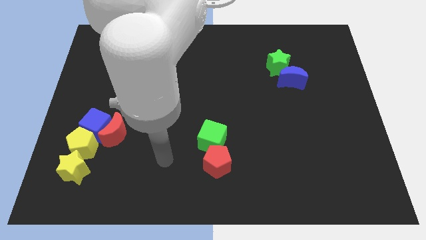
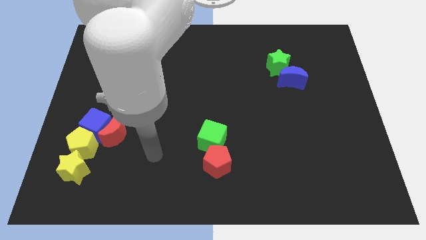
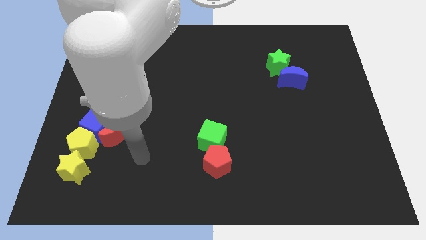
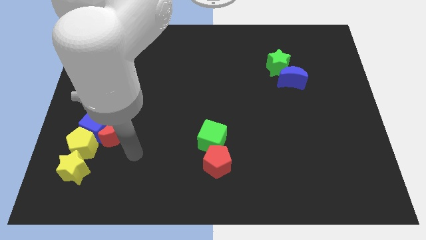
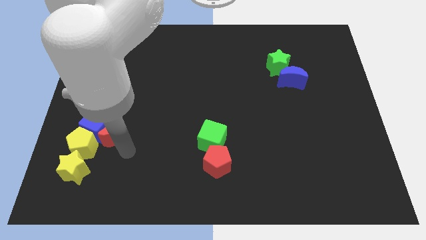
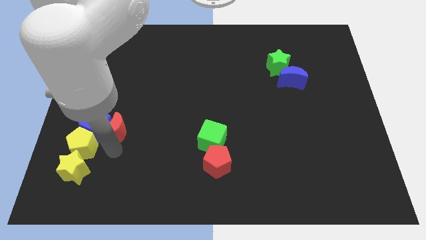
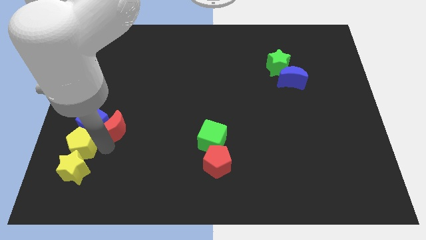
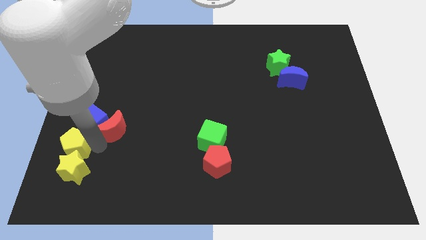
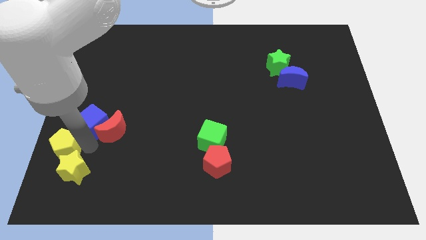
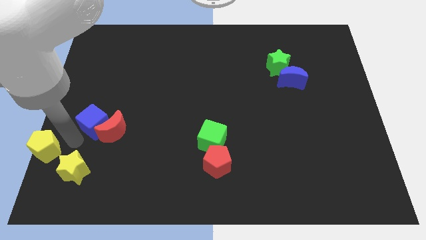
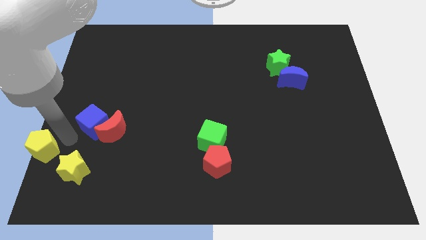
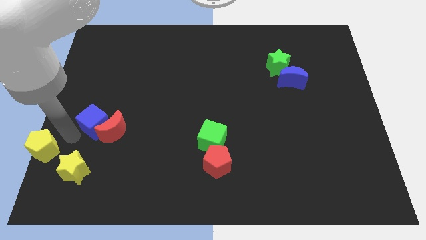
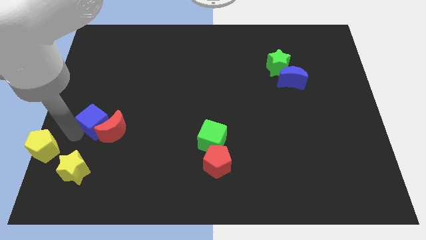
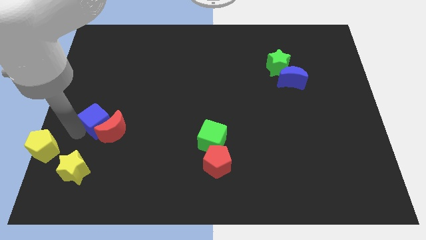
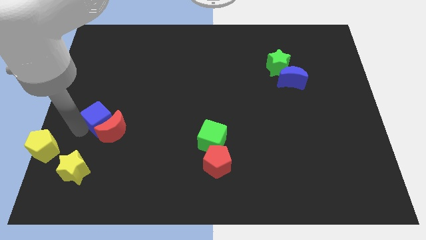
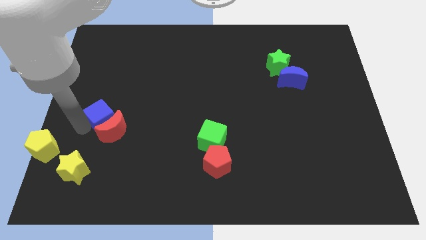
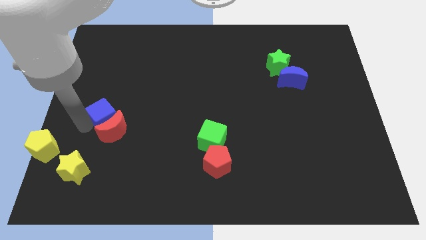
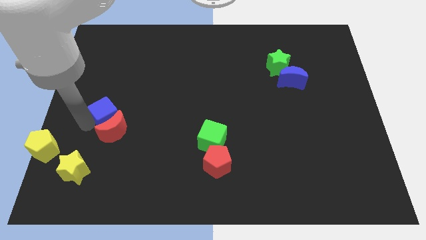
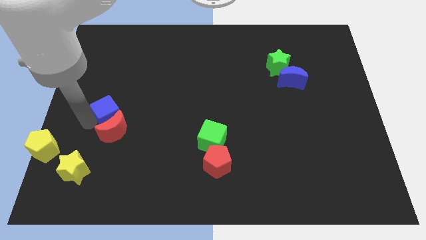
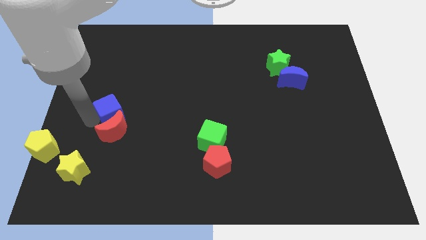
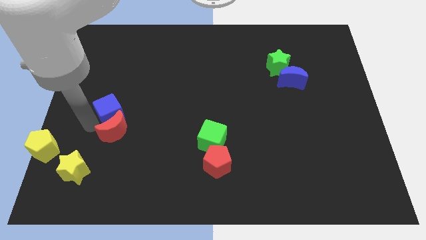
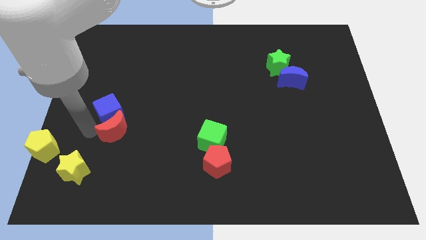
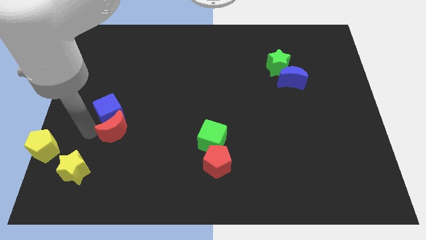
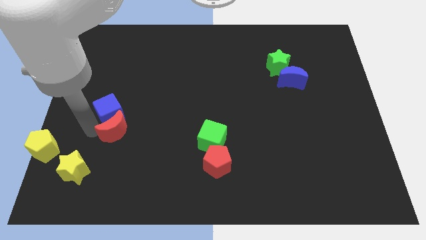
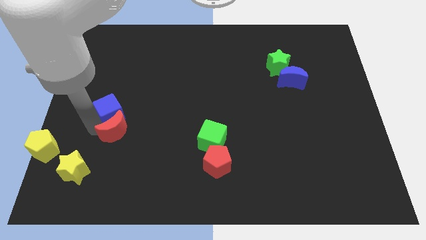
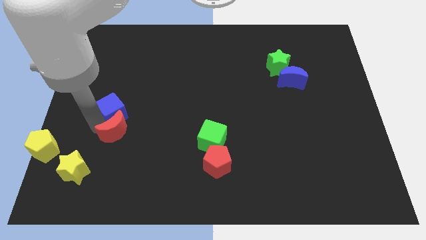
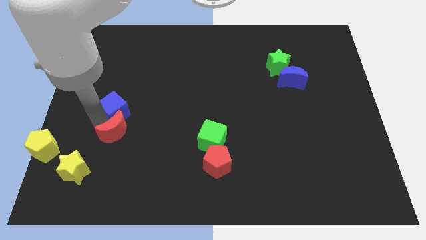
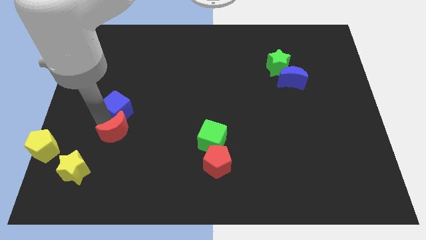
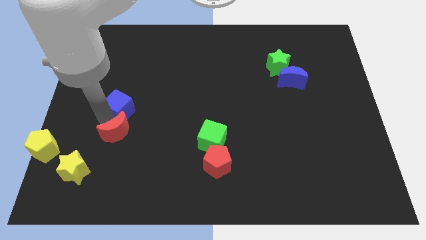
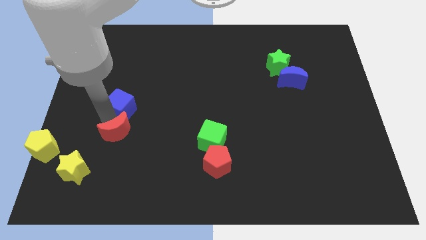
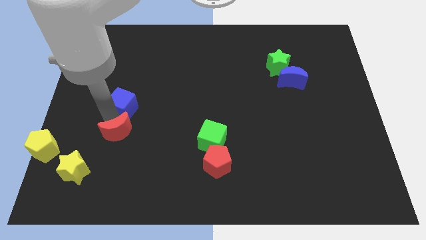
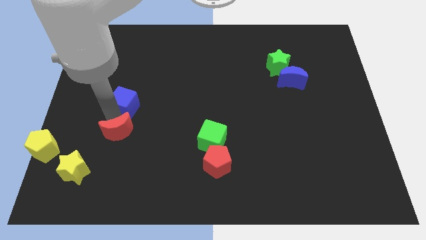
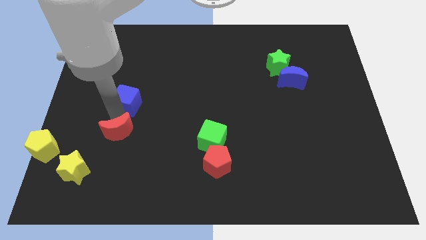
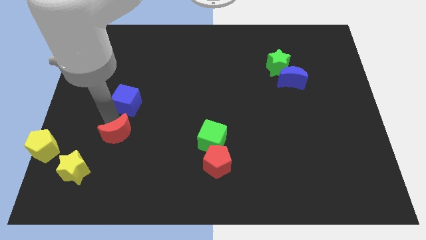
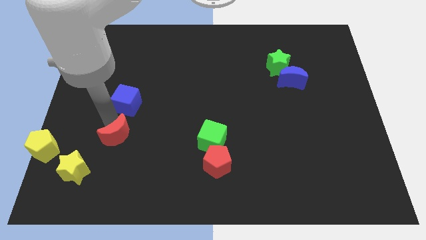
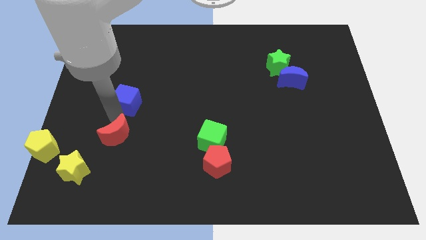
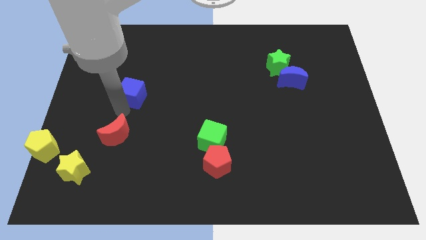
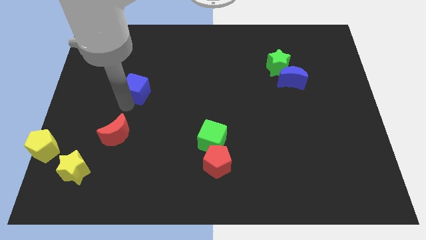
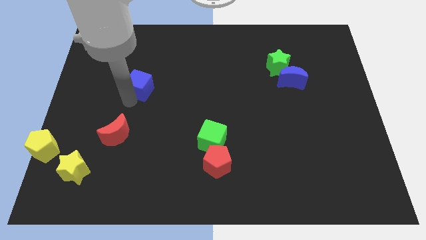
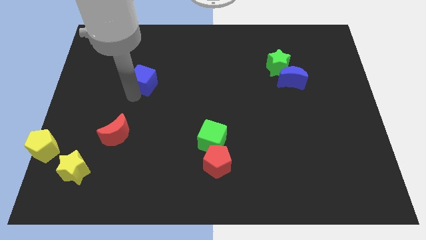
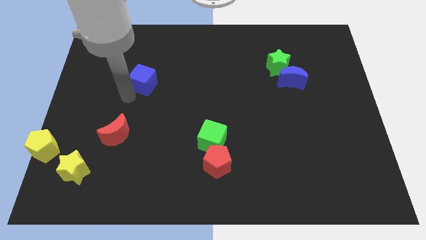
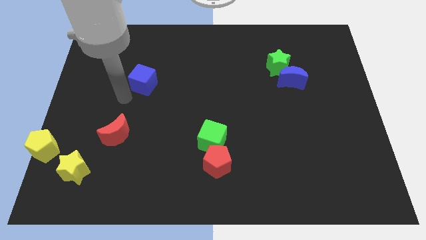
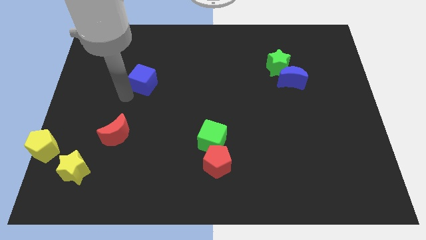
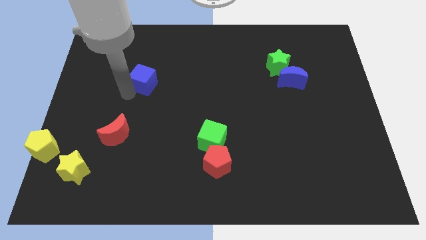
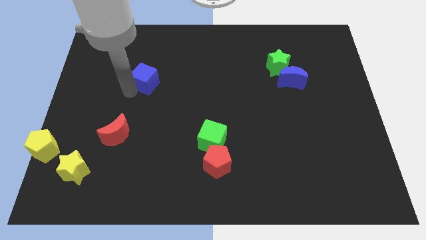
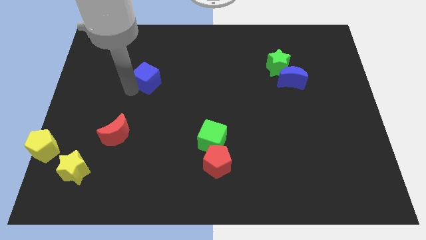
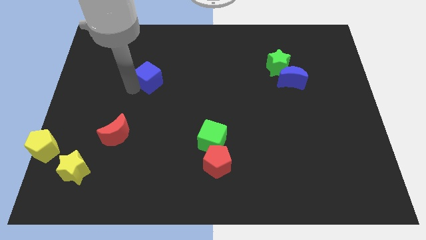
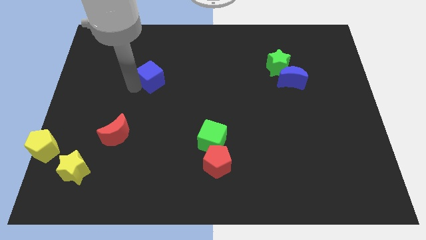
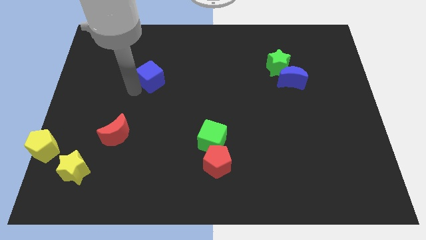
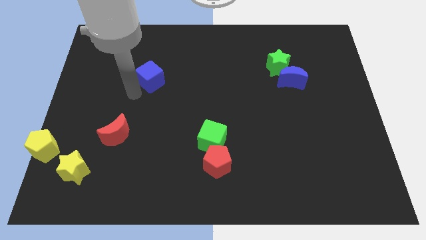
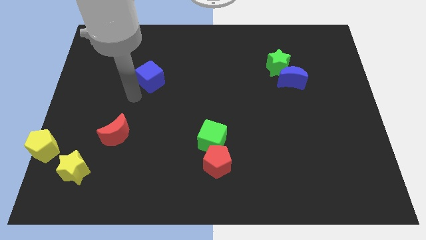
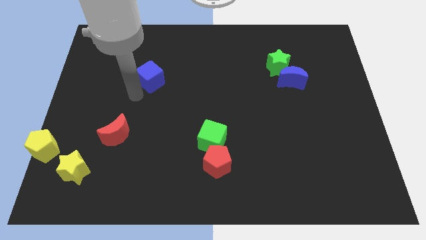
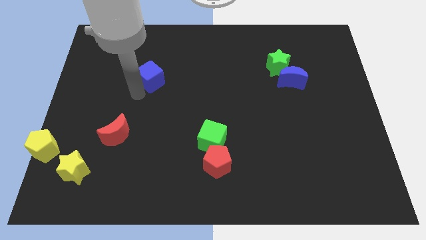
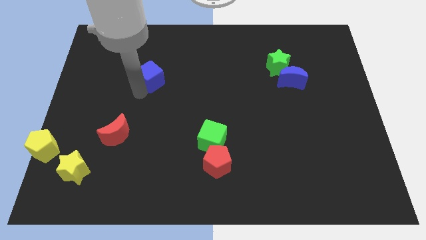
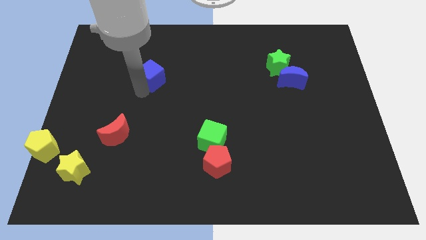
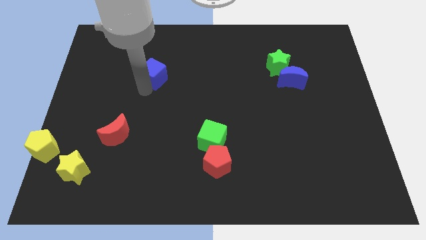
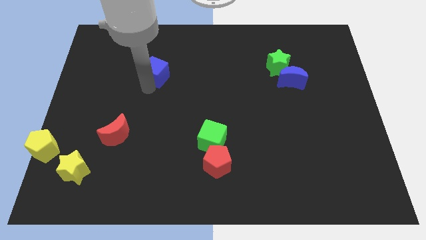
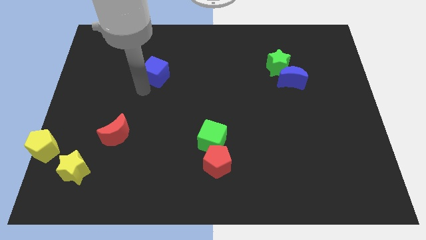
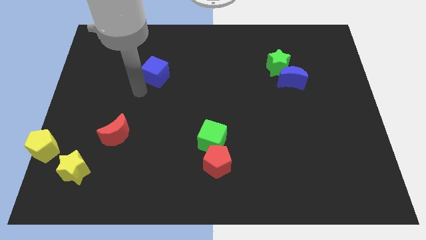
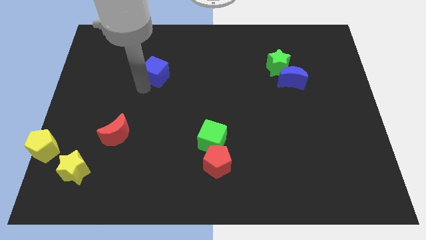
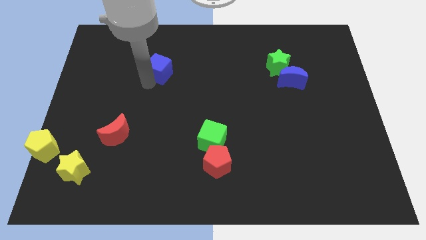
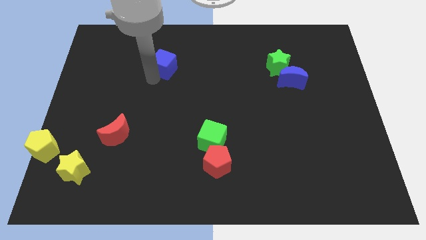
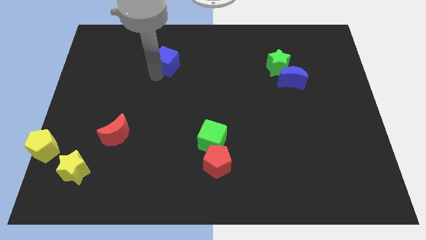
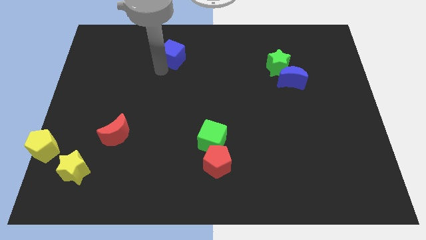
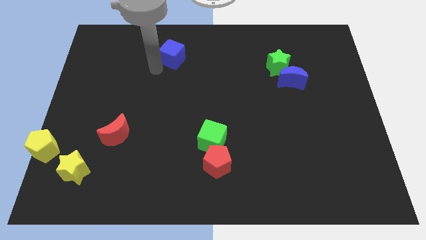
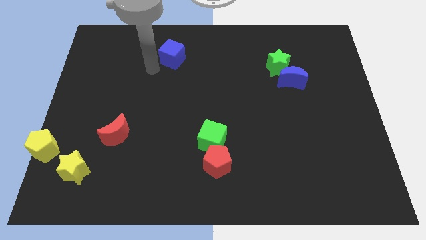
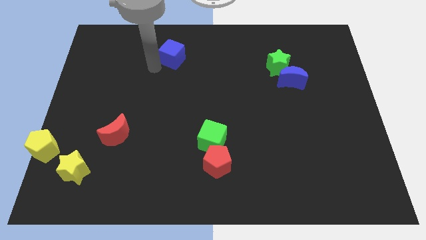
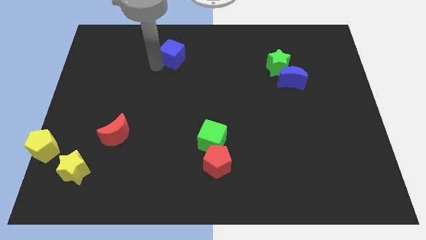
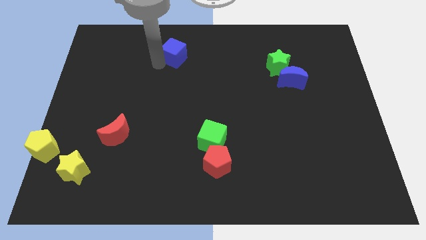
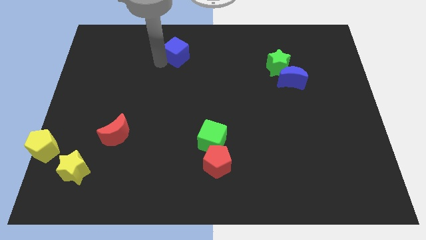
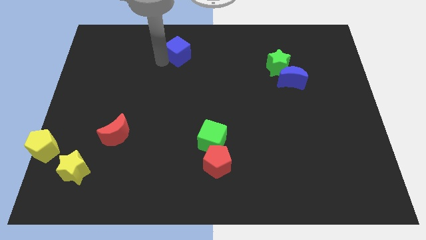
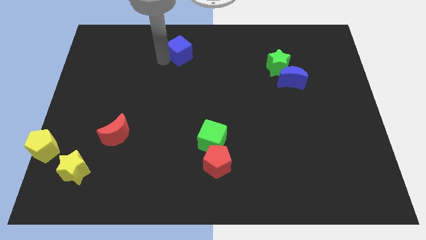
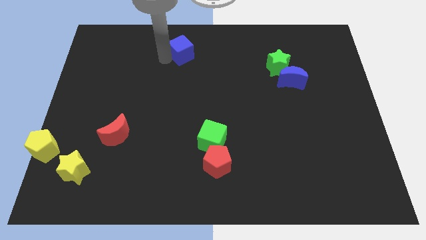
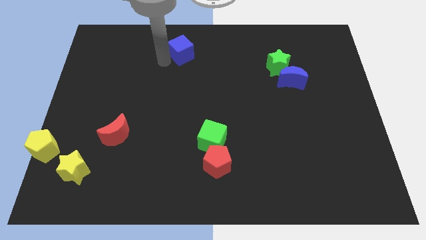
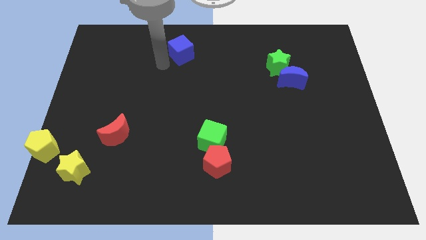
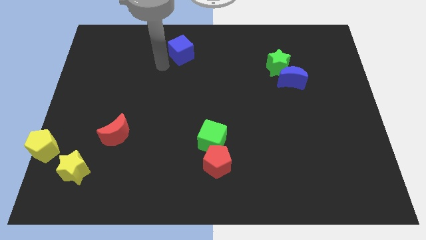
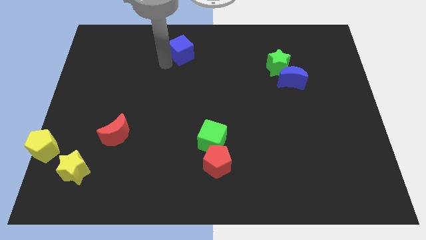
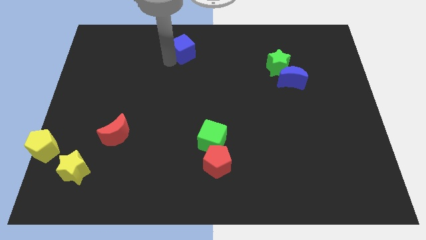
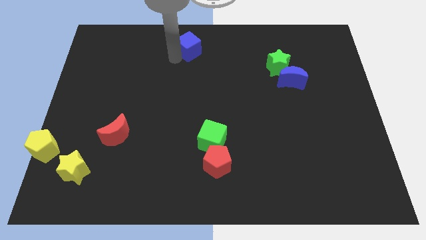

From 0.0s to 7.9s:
put the blue cube to the top
